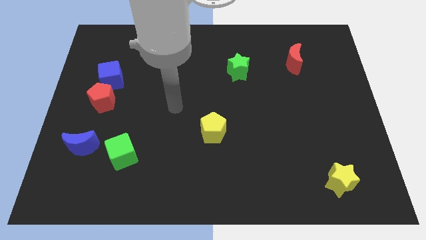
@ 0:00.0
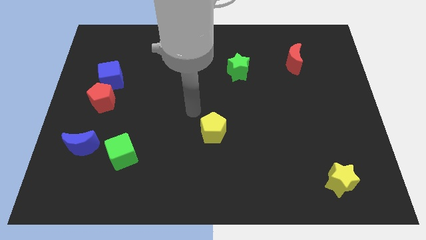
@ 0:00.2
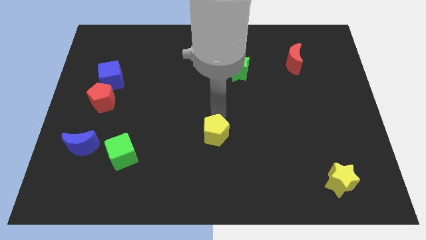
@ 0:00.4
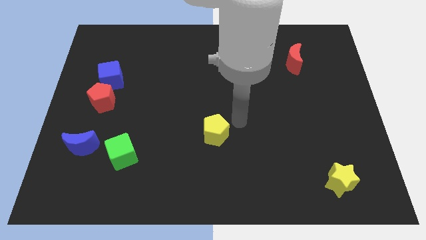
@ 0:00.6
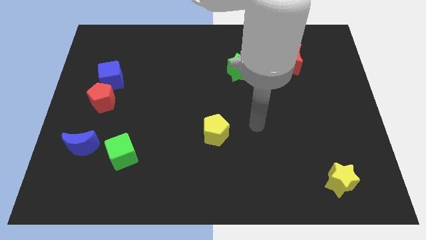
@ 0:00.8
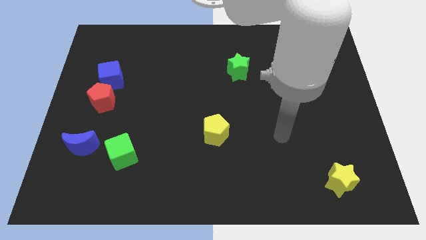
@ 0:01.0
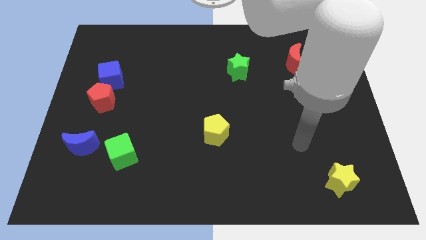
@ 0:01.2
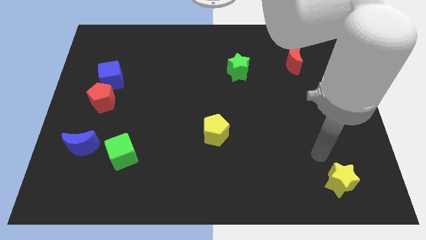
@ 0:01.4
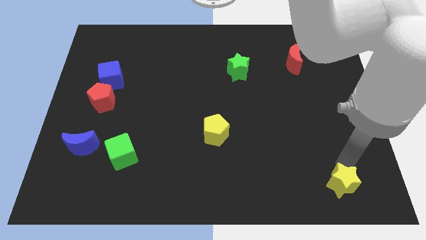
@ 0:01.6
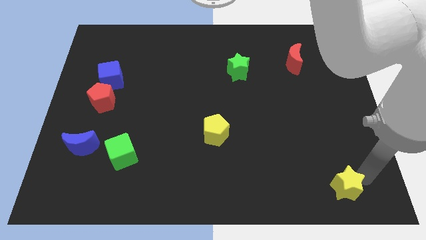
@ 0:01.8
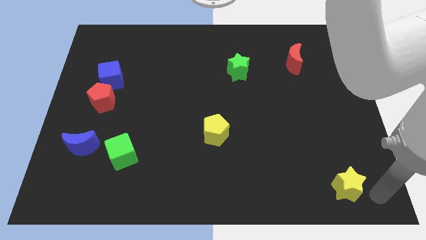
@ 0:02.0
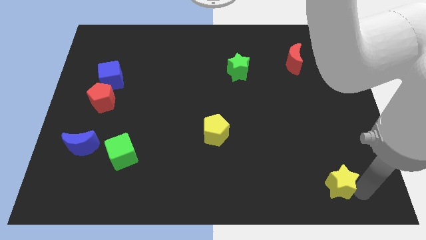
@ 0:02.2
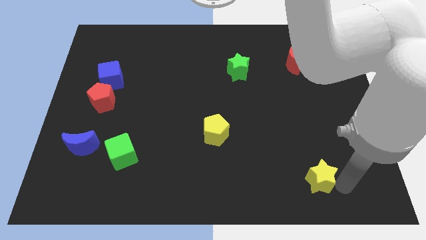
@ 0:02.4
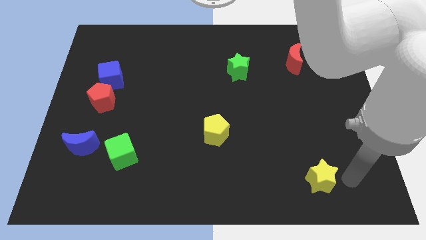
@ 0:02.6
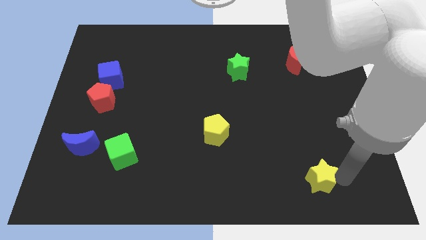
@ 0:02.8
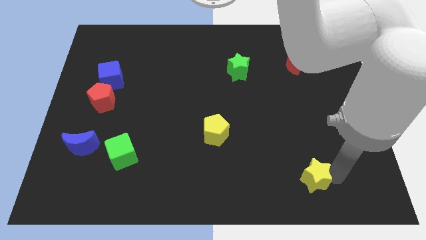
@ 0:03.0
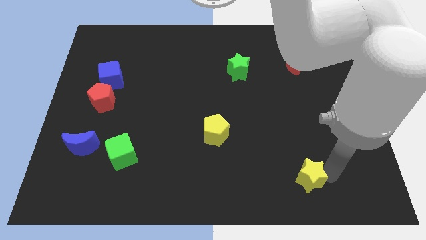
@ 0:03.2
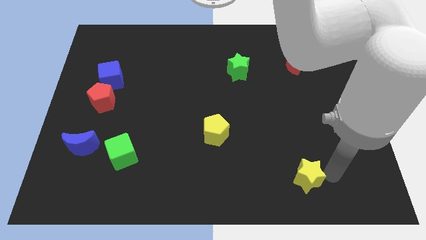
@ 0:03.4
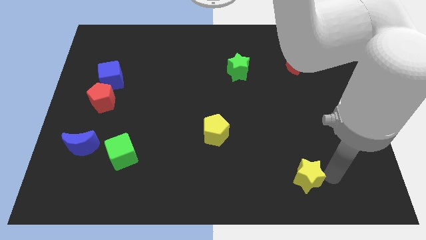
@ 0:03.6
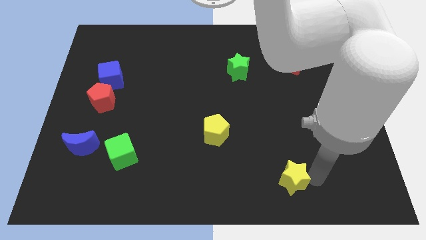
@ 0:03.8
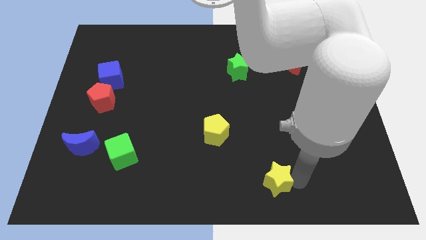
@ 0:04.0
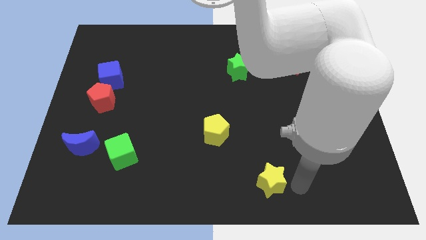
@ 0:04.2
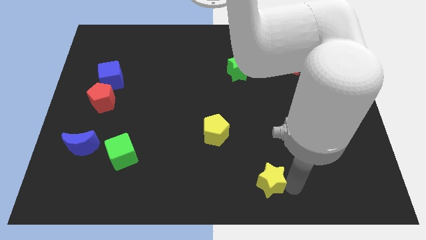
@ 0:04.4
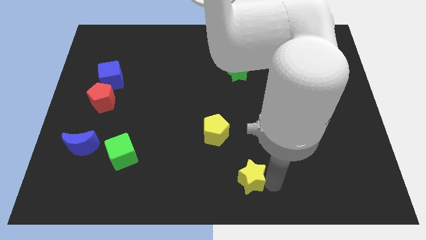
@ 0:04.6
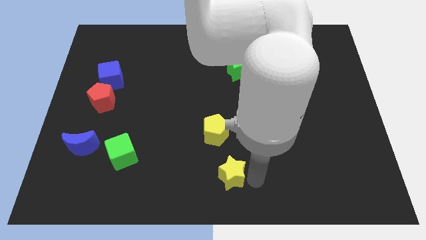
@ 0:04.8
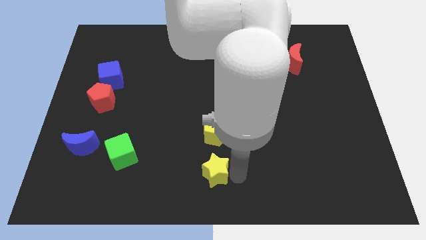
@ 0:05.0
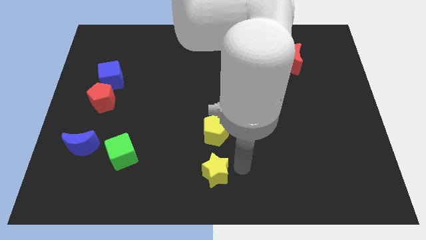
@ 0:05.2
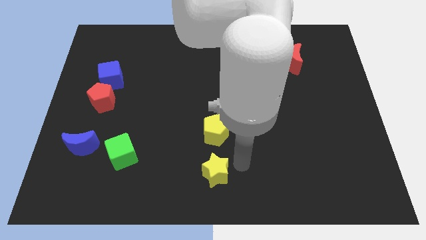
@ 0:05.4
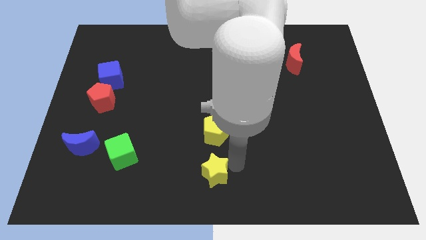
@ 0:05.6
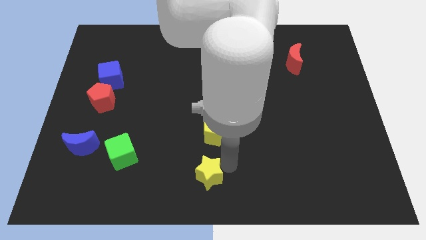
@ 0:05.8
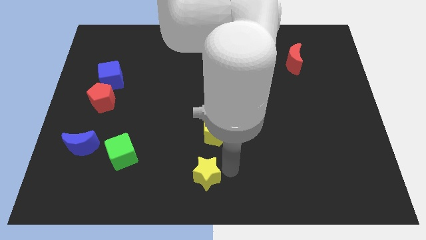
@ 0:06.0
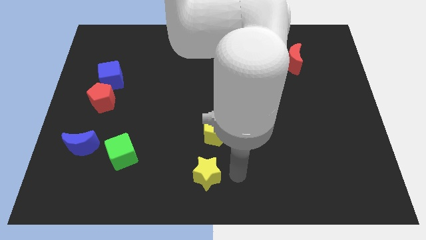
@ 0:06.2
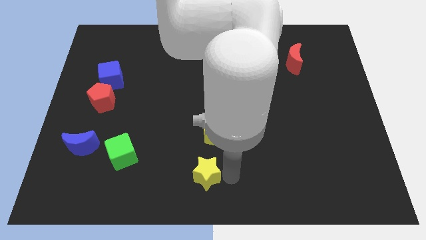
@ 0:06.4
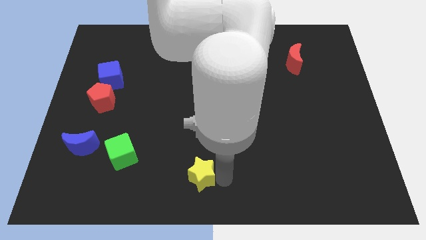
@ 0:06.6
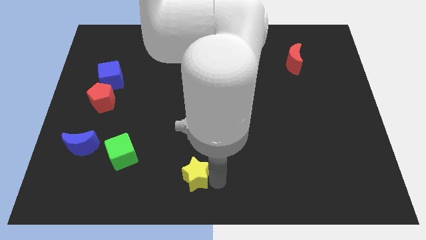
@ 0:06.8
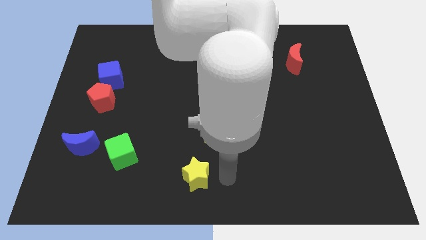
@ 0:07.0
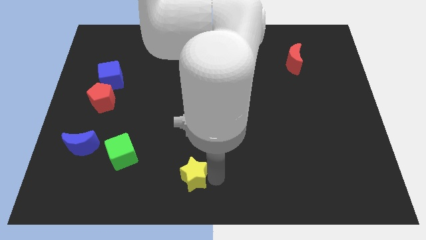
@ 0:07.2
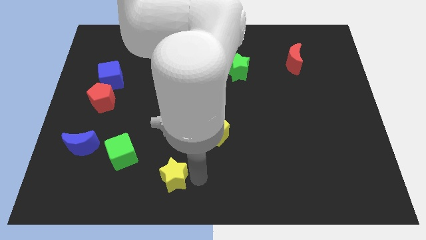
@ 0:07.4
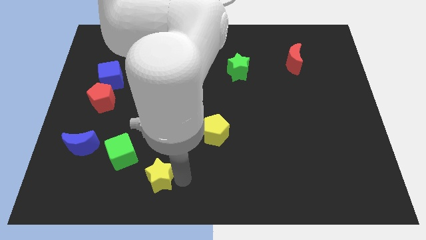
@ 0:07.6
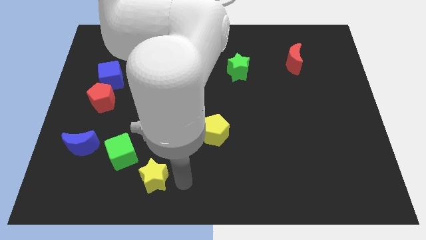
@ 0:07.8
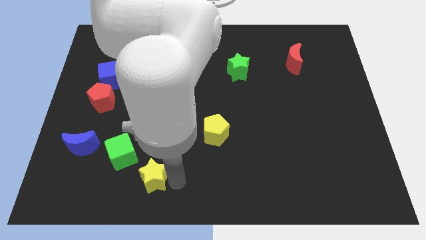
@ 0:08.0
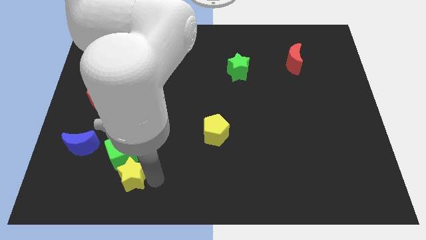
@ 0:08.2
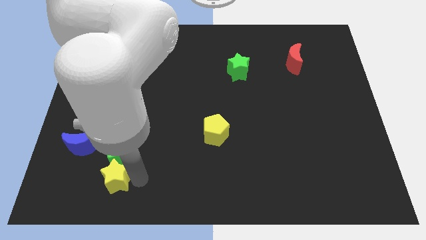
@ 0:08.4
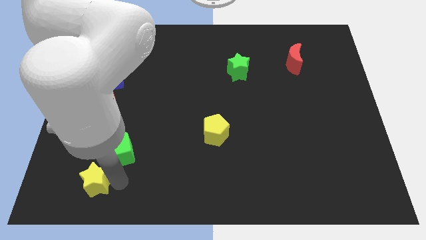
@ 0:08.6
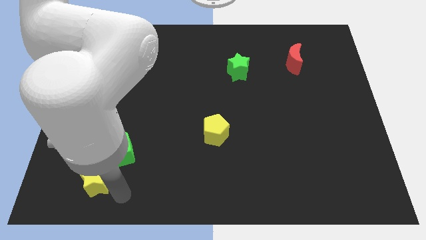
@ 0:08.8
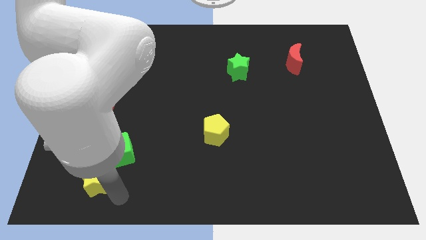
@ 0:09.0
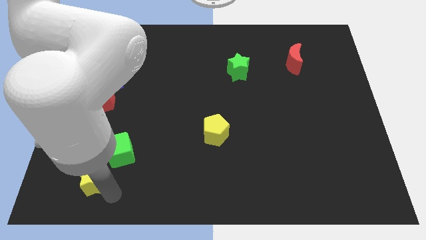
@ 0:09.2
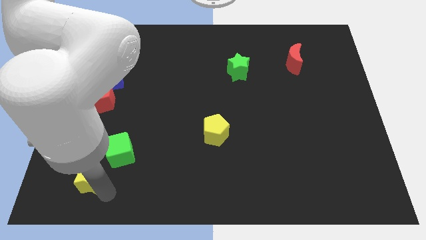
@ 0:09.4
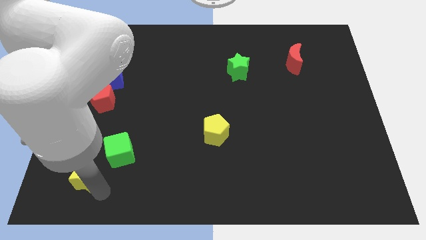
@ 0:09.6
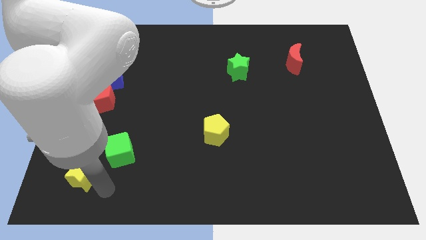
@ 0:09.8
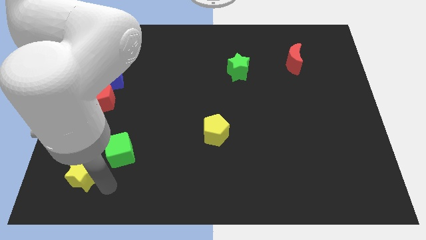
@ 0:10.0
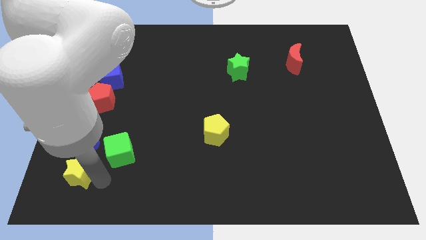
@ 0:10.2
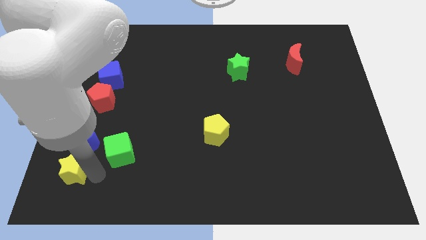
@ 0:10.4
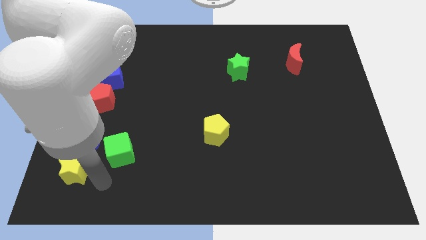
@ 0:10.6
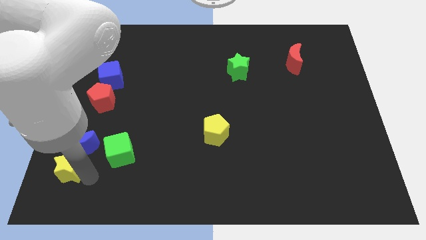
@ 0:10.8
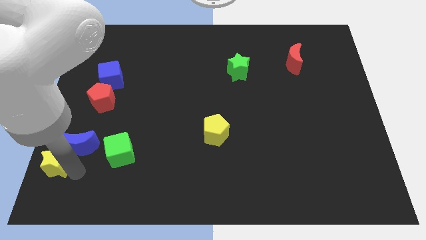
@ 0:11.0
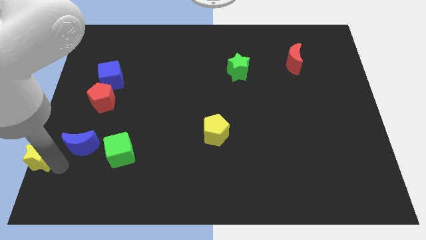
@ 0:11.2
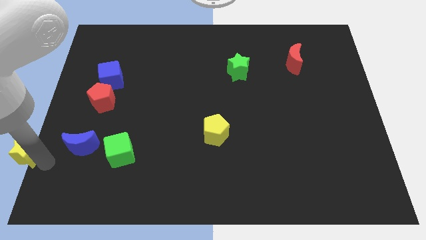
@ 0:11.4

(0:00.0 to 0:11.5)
move the yellow star to the center left
